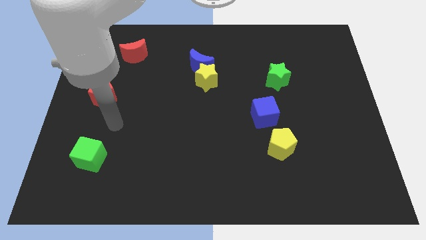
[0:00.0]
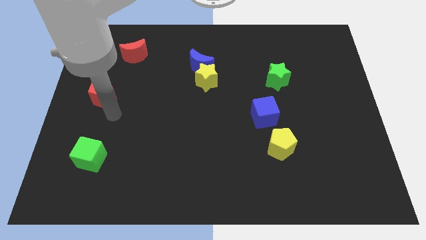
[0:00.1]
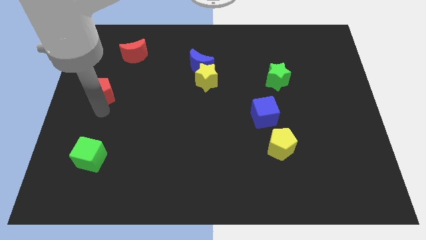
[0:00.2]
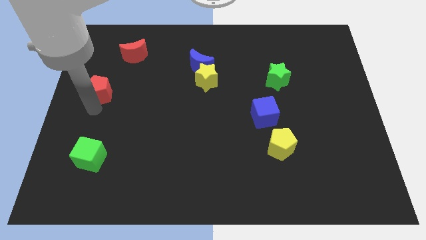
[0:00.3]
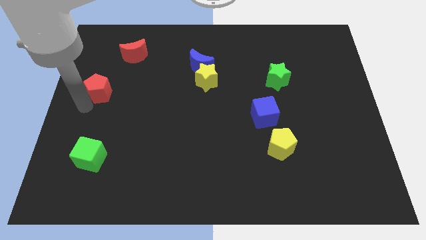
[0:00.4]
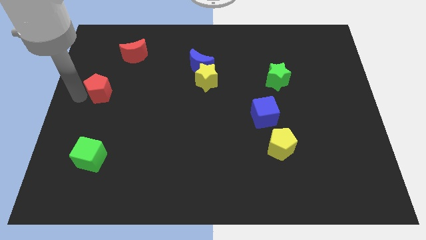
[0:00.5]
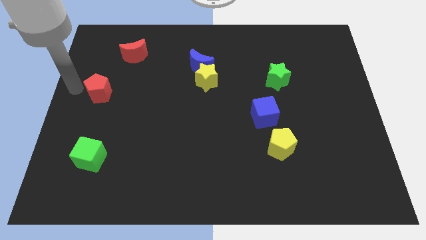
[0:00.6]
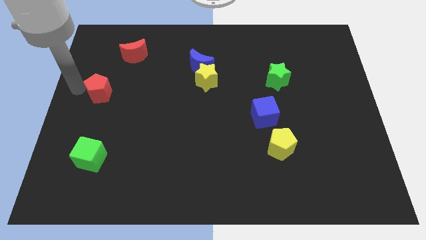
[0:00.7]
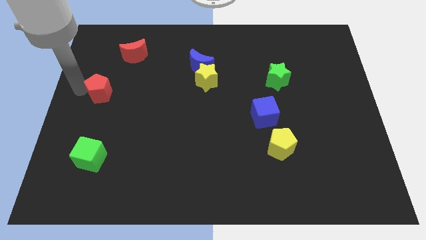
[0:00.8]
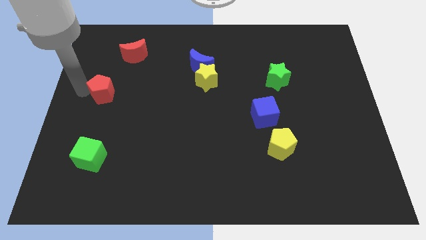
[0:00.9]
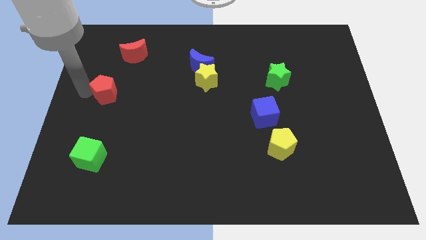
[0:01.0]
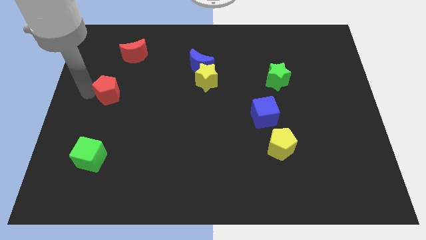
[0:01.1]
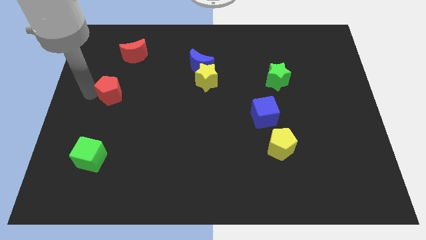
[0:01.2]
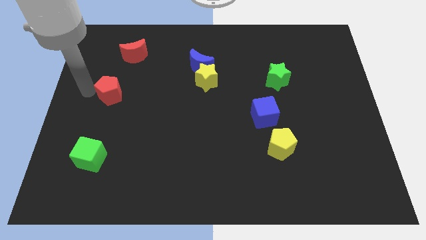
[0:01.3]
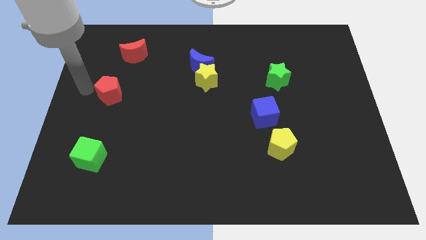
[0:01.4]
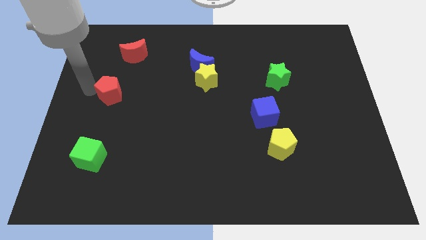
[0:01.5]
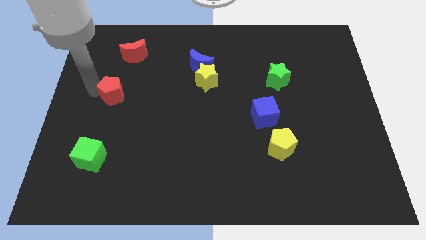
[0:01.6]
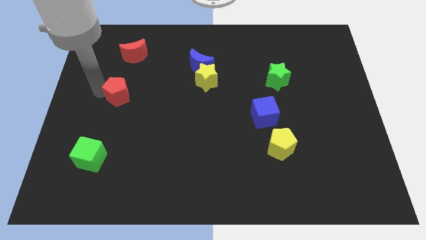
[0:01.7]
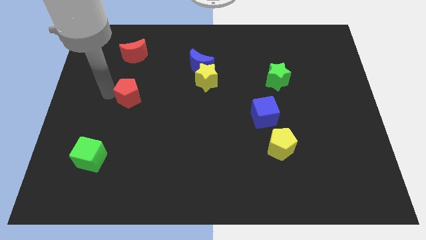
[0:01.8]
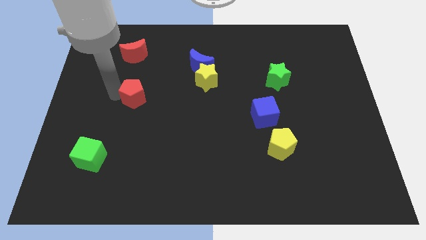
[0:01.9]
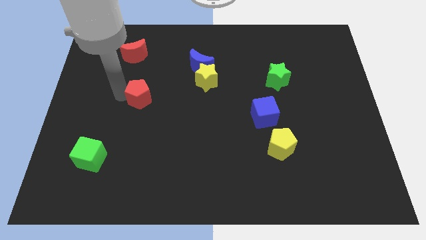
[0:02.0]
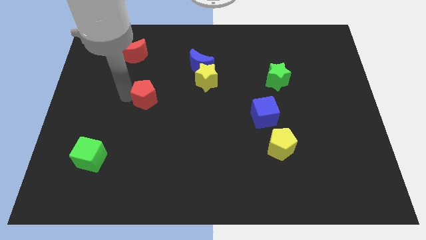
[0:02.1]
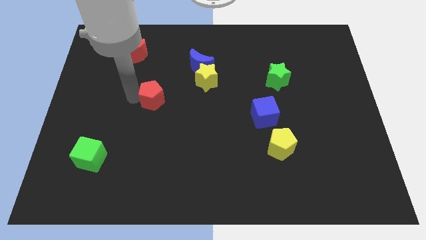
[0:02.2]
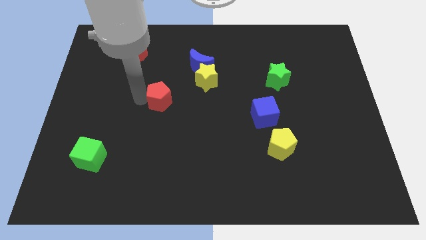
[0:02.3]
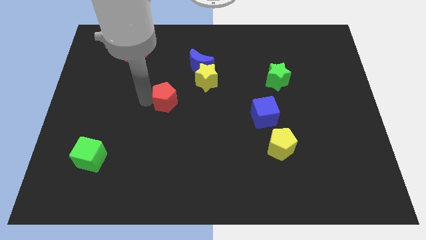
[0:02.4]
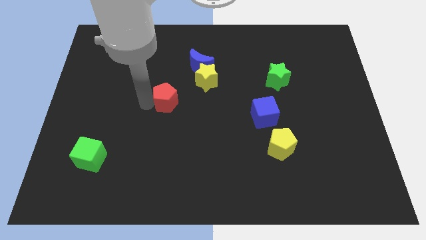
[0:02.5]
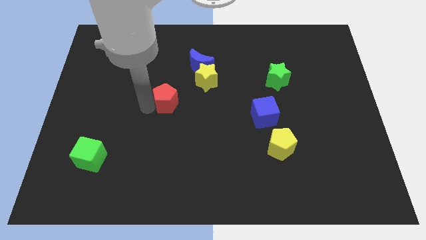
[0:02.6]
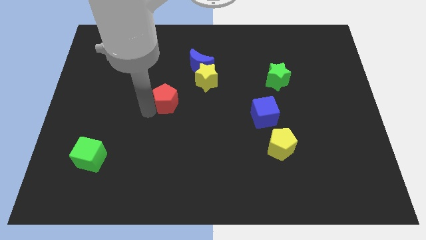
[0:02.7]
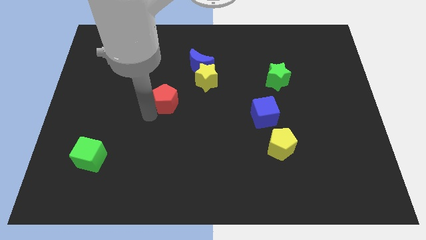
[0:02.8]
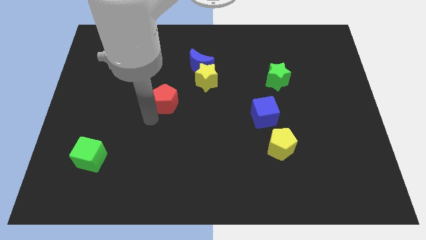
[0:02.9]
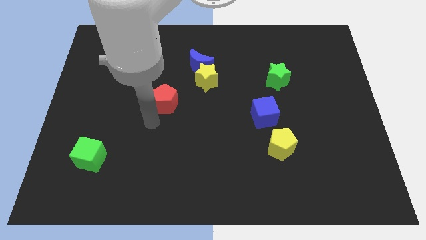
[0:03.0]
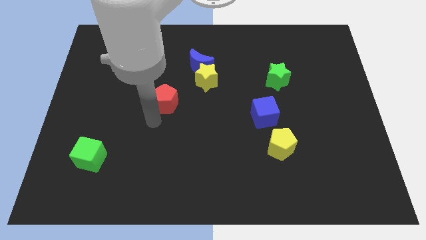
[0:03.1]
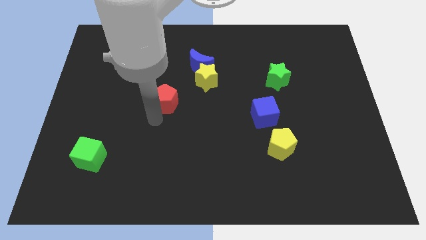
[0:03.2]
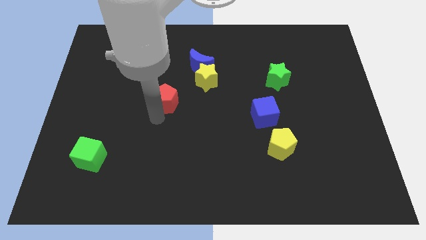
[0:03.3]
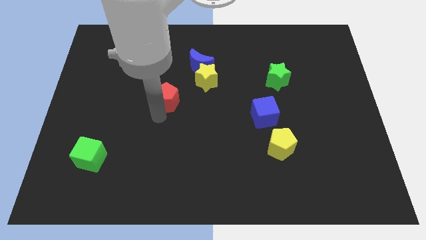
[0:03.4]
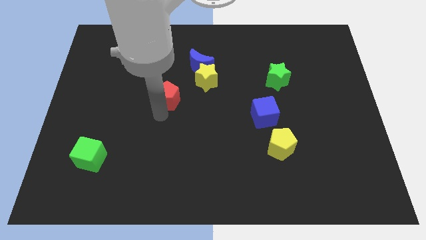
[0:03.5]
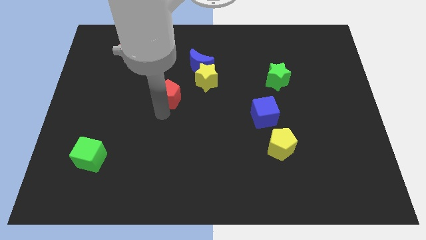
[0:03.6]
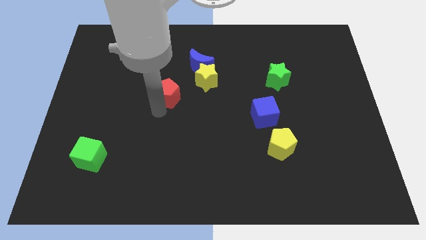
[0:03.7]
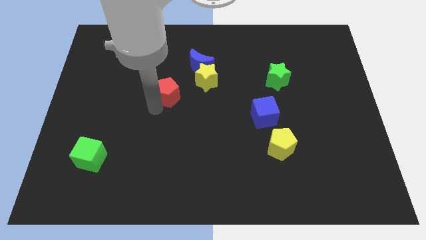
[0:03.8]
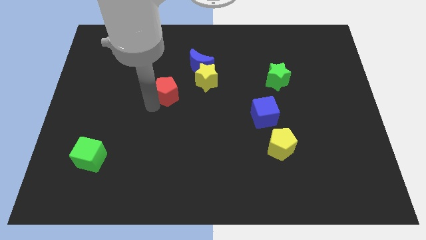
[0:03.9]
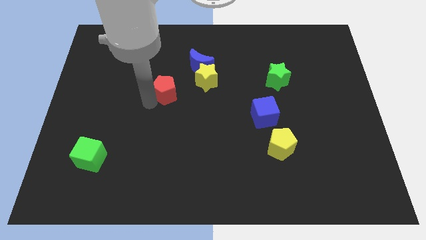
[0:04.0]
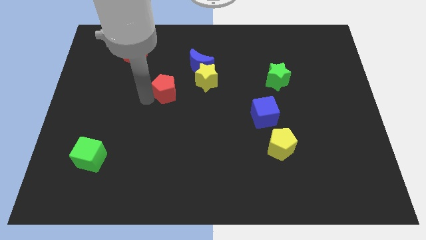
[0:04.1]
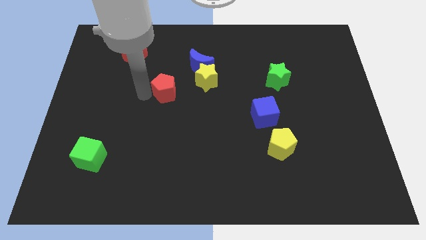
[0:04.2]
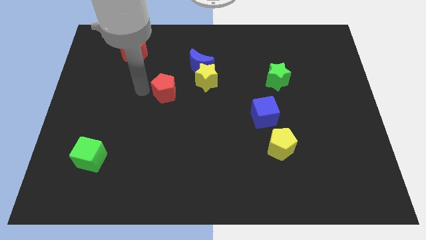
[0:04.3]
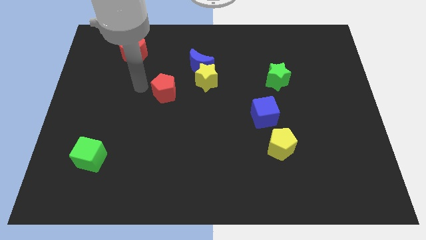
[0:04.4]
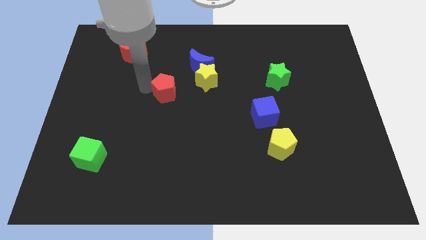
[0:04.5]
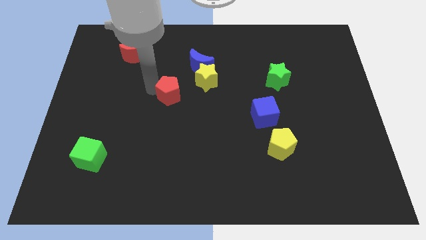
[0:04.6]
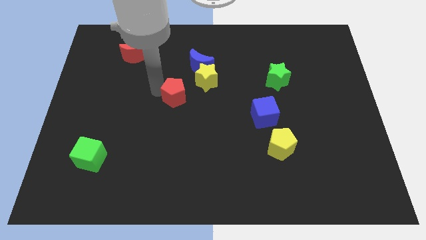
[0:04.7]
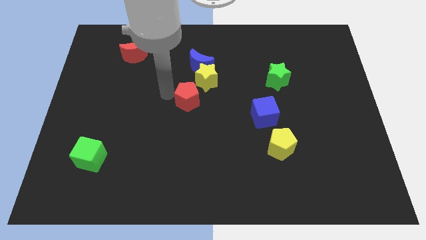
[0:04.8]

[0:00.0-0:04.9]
move the red pentagon right

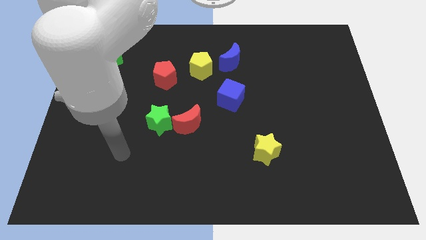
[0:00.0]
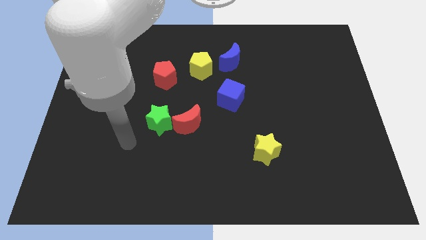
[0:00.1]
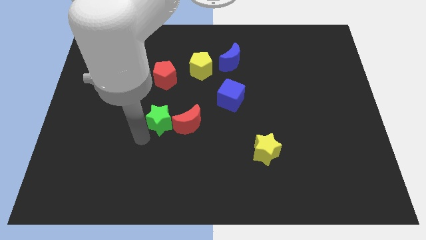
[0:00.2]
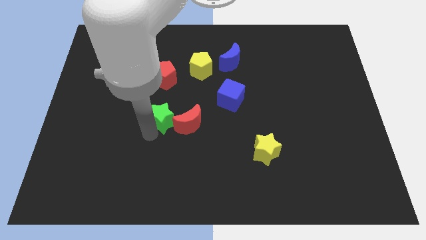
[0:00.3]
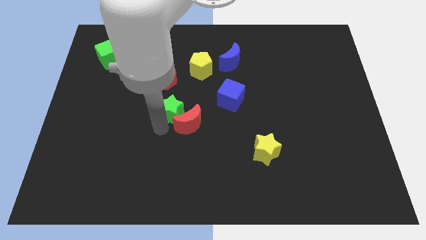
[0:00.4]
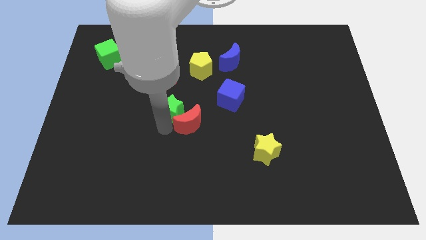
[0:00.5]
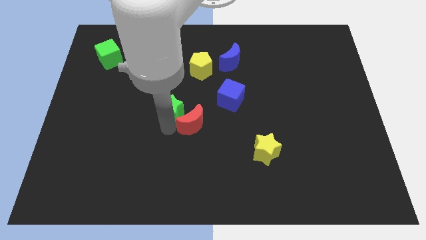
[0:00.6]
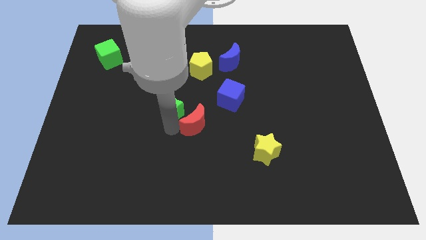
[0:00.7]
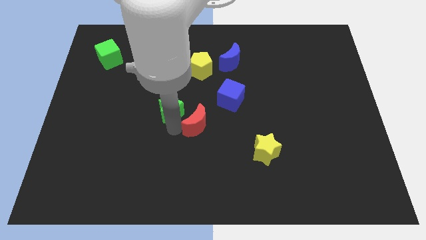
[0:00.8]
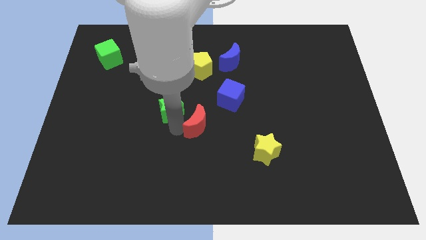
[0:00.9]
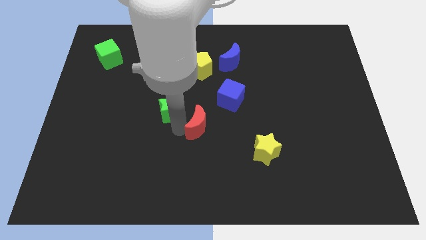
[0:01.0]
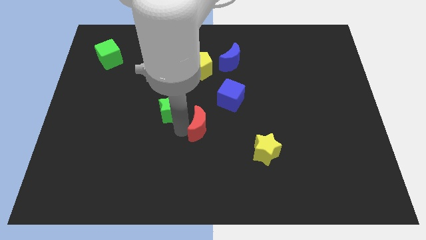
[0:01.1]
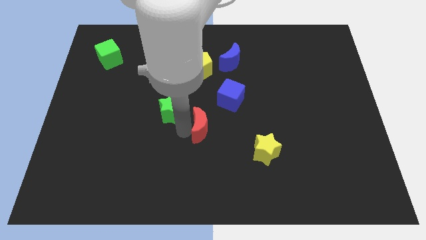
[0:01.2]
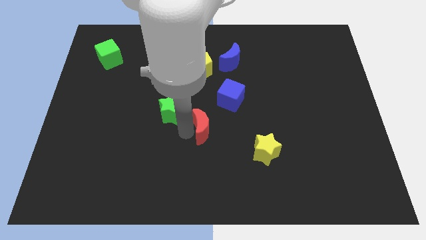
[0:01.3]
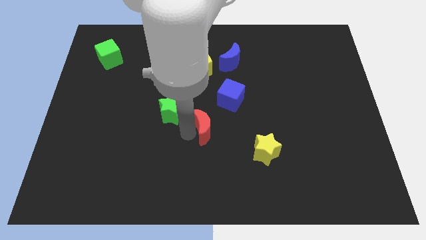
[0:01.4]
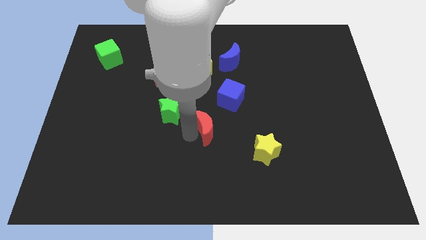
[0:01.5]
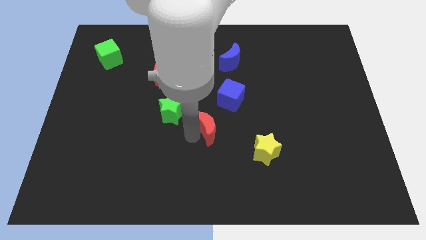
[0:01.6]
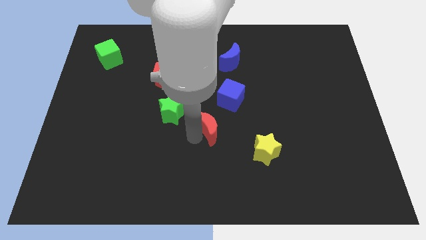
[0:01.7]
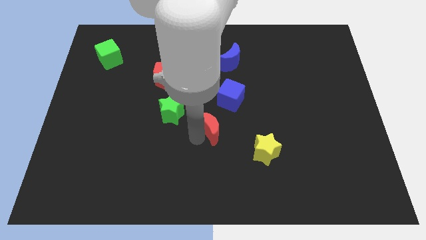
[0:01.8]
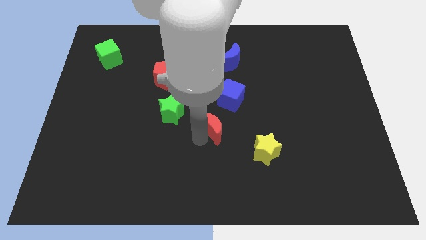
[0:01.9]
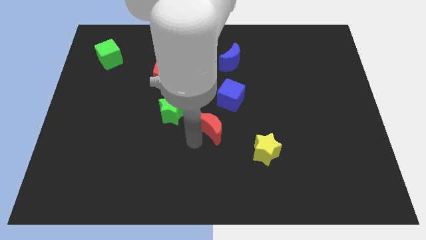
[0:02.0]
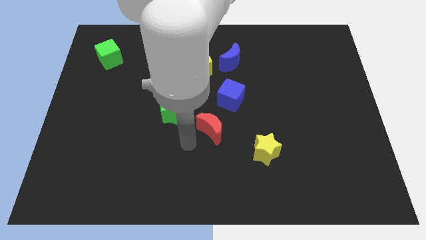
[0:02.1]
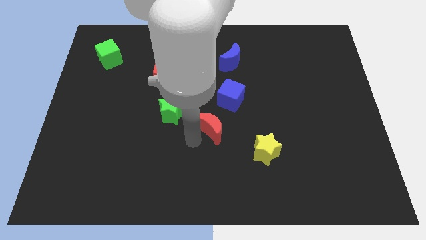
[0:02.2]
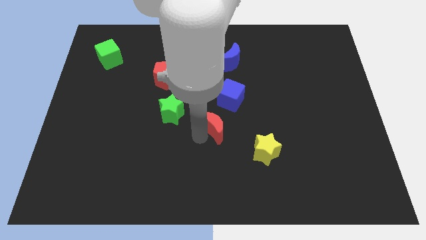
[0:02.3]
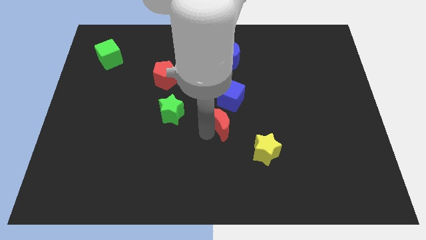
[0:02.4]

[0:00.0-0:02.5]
push the red moon to the right a bit

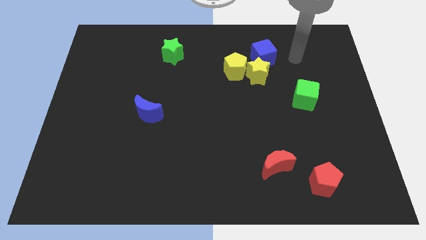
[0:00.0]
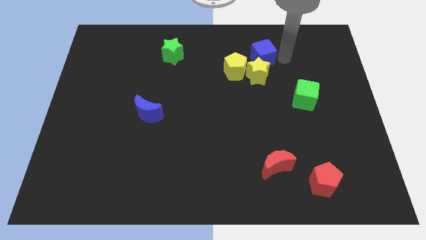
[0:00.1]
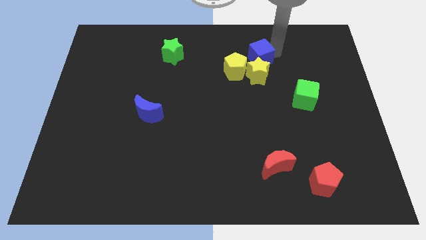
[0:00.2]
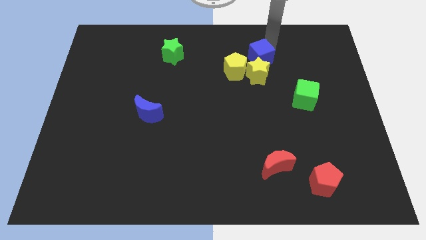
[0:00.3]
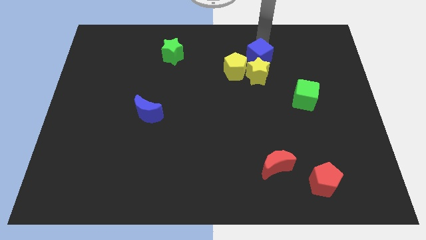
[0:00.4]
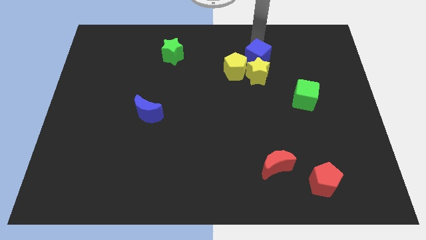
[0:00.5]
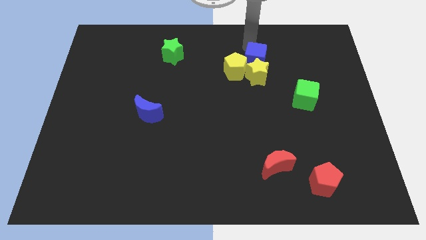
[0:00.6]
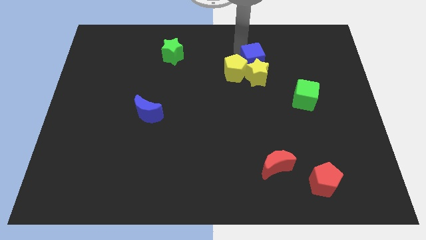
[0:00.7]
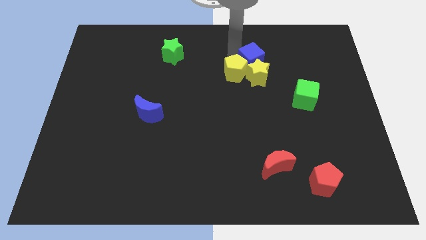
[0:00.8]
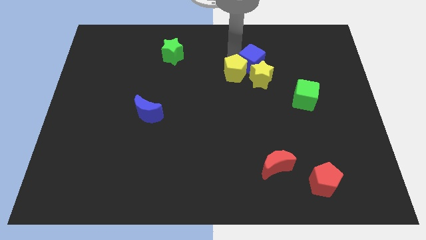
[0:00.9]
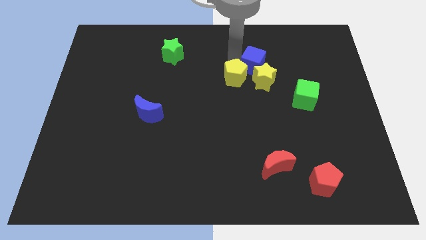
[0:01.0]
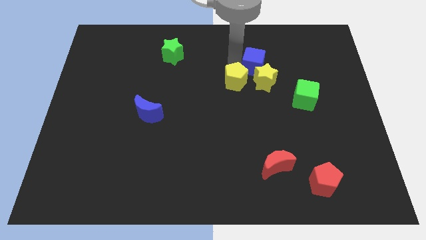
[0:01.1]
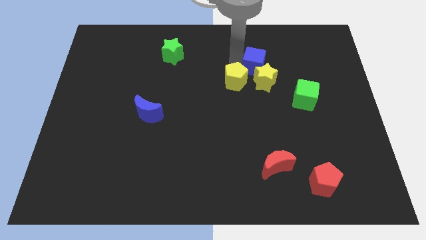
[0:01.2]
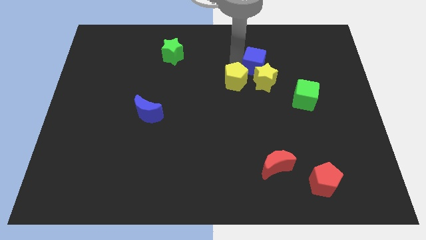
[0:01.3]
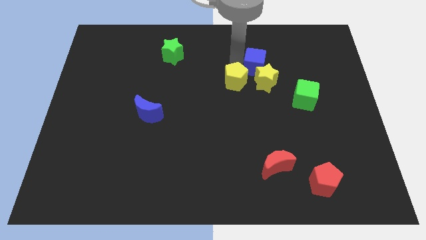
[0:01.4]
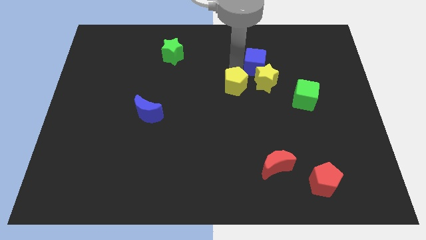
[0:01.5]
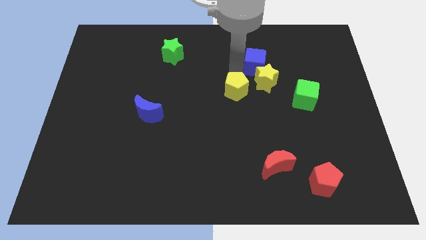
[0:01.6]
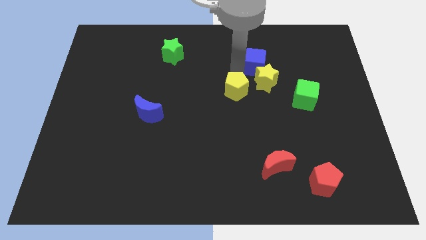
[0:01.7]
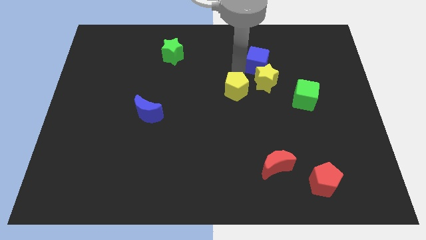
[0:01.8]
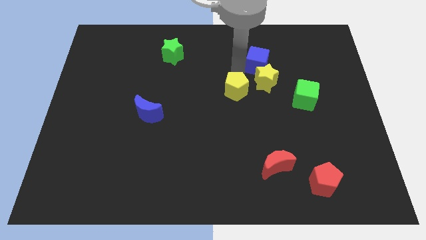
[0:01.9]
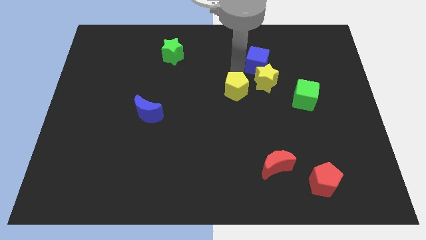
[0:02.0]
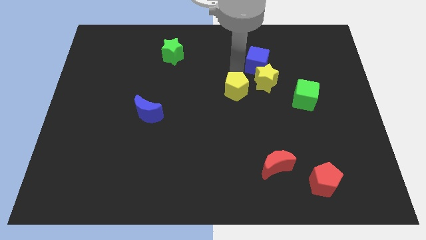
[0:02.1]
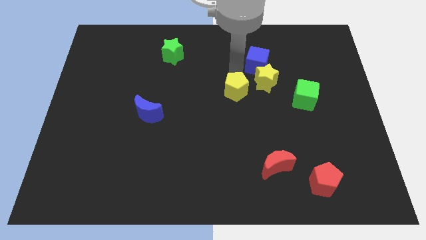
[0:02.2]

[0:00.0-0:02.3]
push the yellow pentagon downwards somewhat
